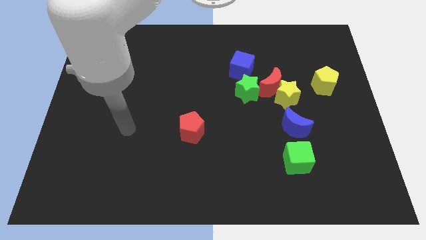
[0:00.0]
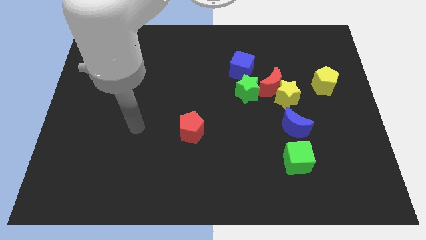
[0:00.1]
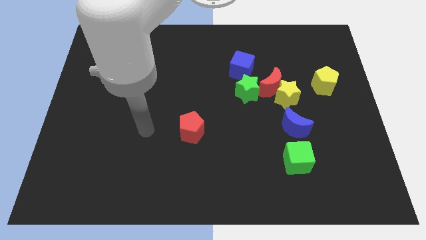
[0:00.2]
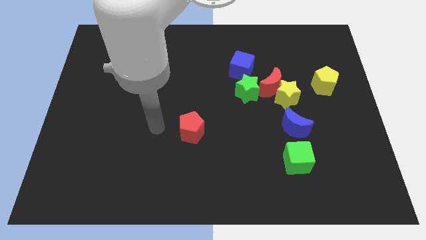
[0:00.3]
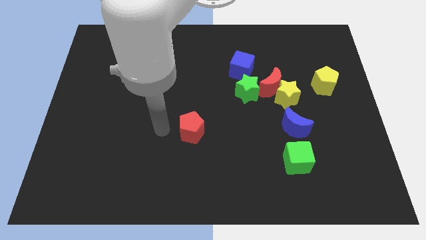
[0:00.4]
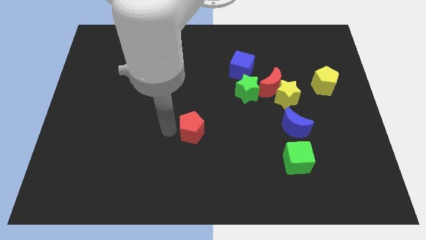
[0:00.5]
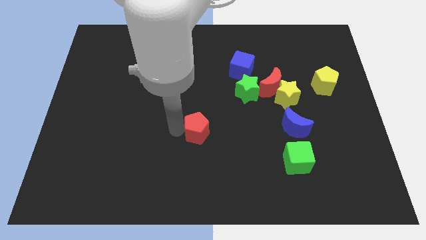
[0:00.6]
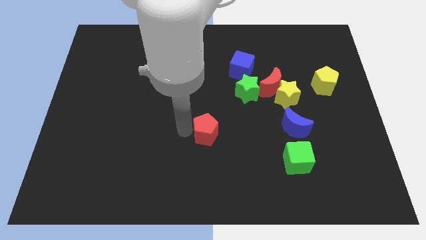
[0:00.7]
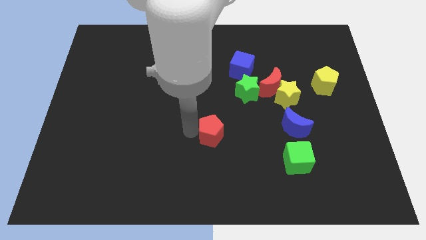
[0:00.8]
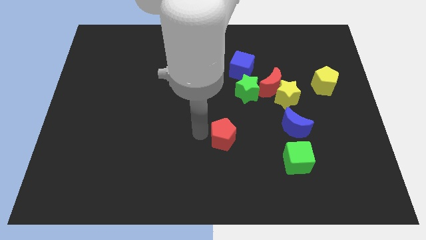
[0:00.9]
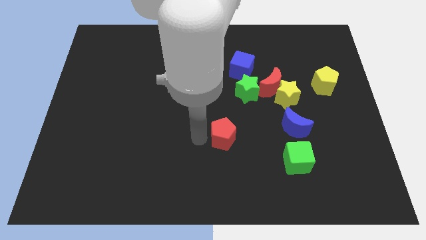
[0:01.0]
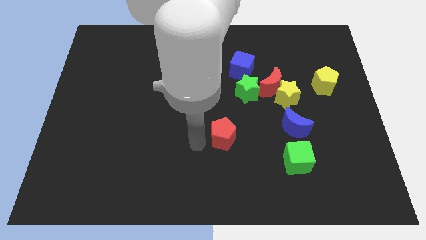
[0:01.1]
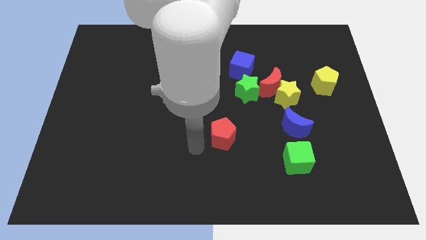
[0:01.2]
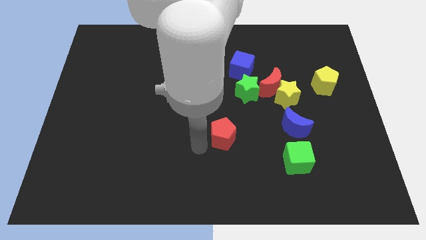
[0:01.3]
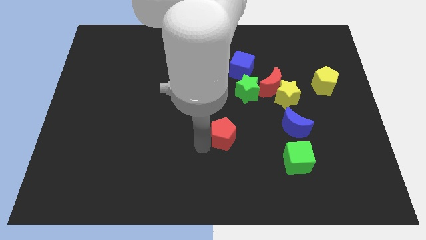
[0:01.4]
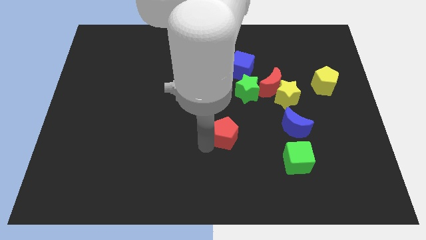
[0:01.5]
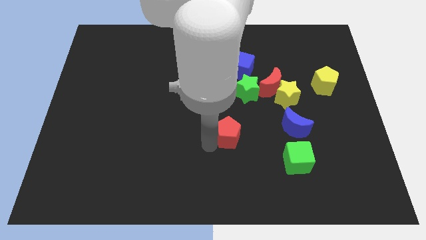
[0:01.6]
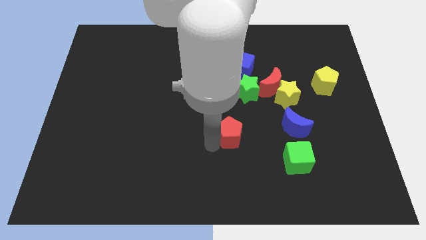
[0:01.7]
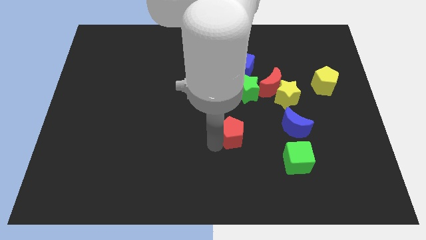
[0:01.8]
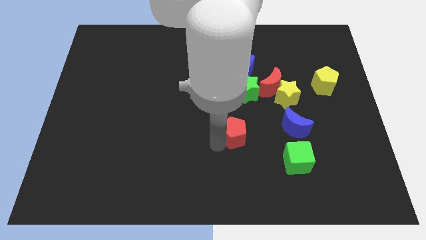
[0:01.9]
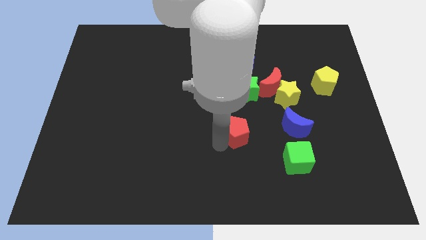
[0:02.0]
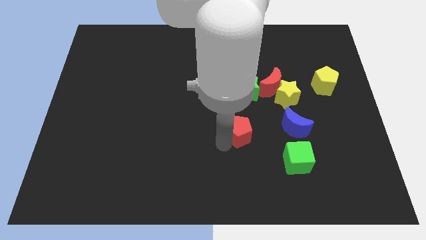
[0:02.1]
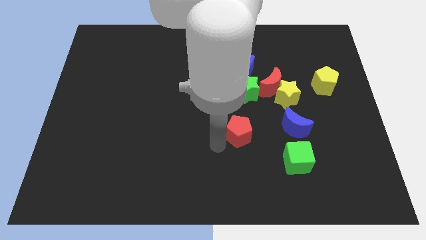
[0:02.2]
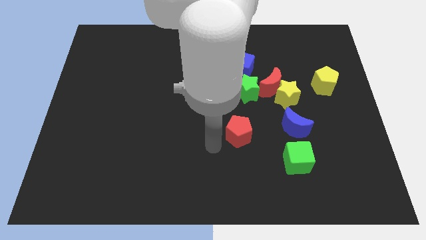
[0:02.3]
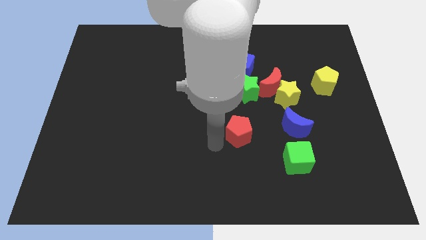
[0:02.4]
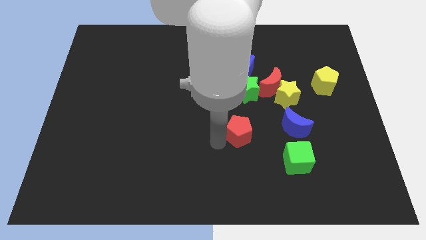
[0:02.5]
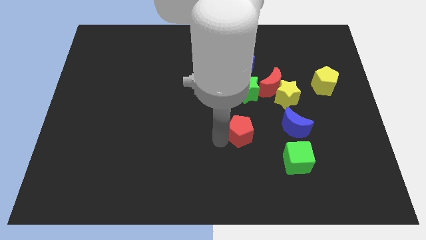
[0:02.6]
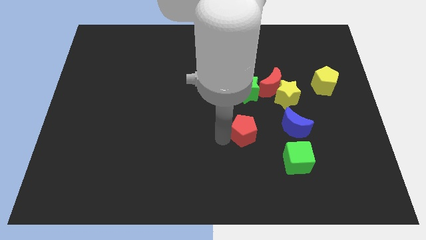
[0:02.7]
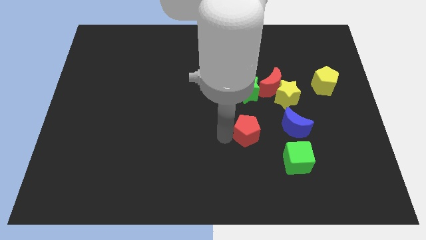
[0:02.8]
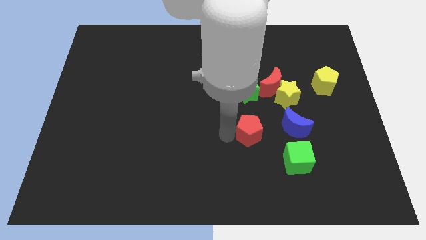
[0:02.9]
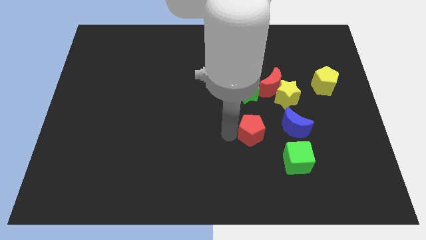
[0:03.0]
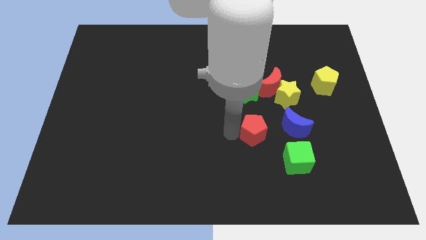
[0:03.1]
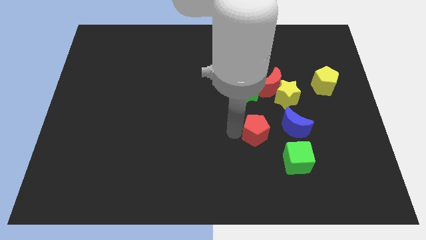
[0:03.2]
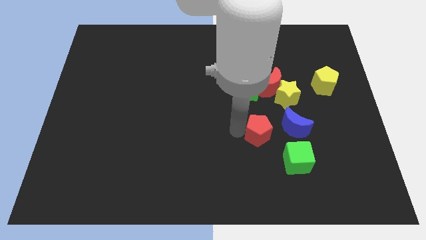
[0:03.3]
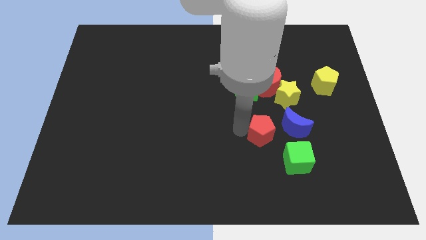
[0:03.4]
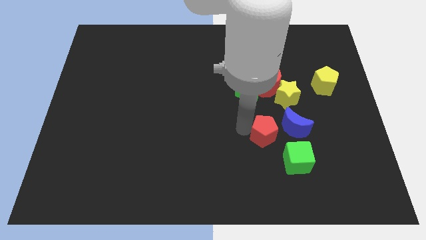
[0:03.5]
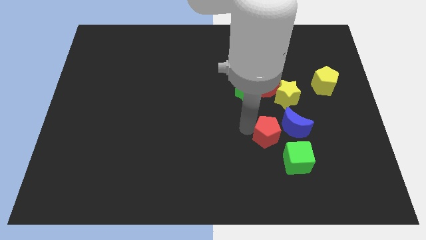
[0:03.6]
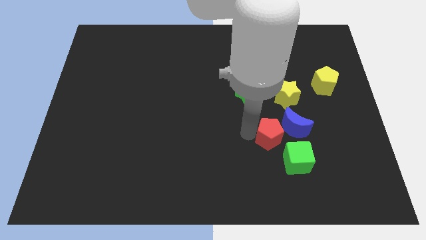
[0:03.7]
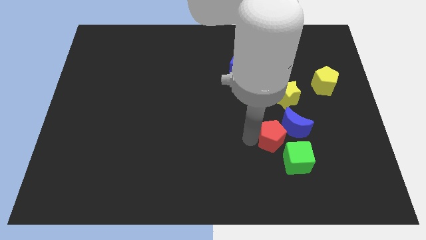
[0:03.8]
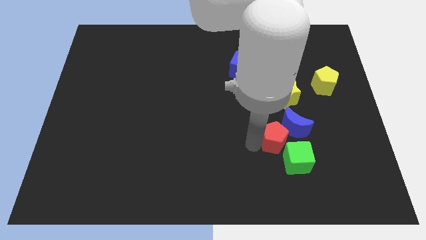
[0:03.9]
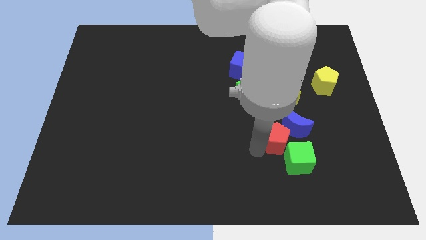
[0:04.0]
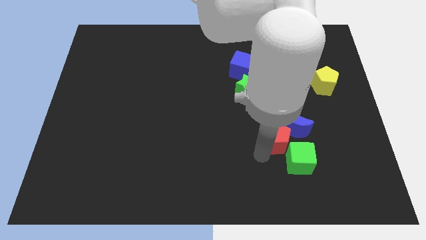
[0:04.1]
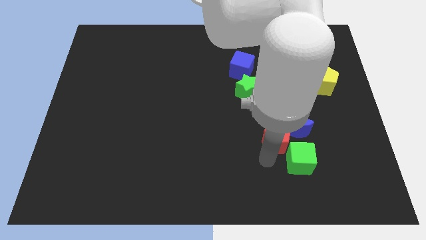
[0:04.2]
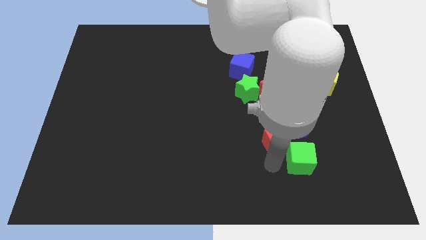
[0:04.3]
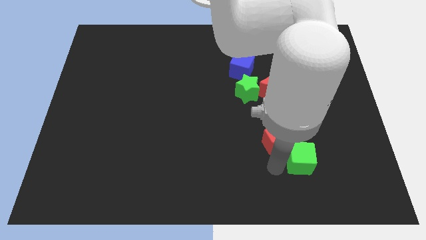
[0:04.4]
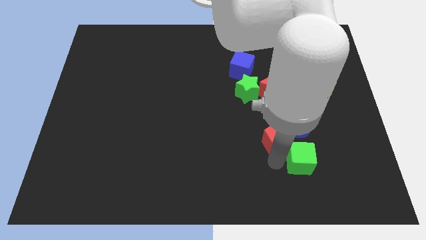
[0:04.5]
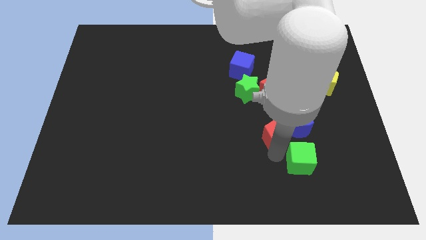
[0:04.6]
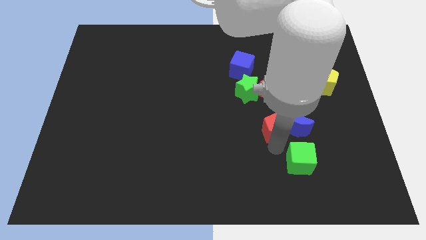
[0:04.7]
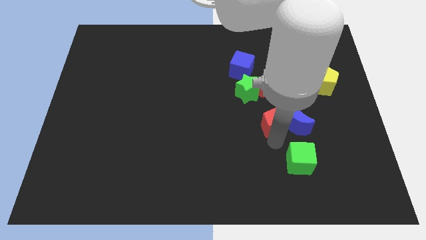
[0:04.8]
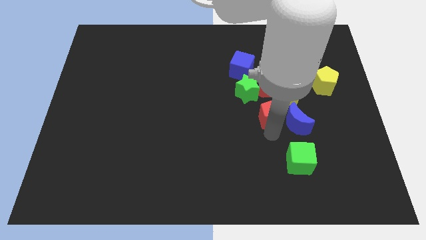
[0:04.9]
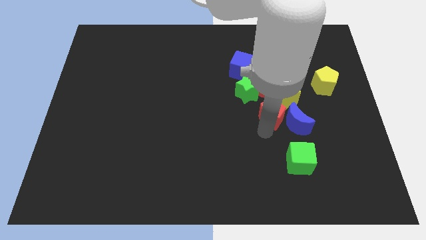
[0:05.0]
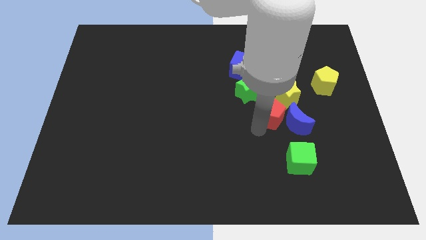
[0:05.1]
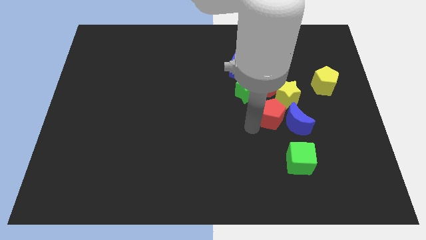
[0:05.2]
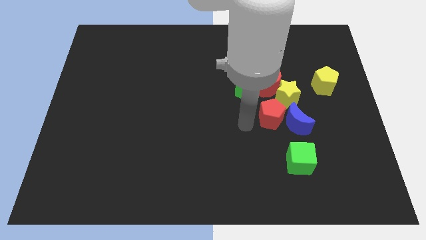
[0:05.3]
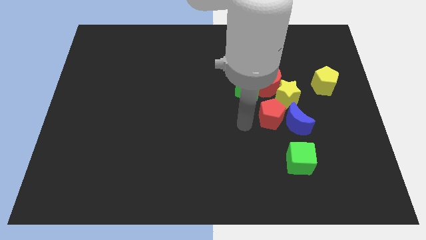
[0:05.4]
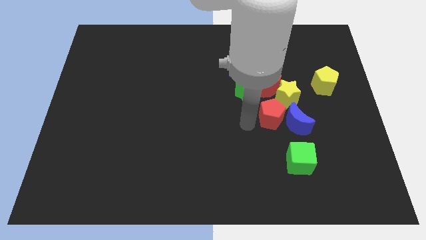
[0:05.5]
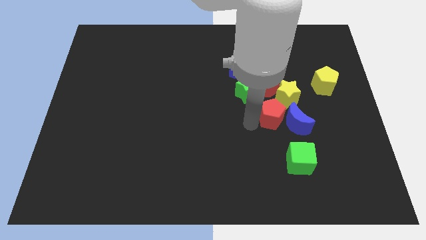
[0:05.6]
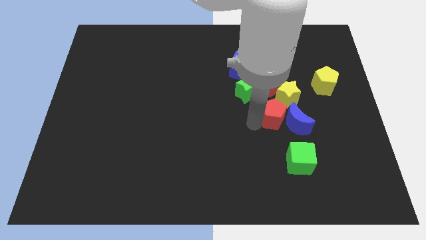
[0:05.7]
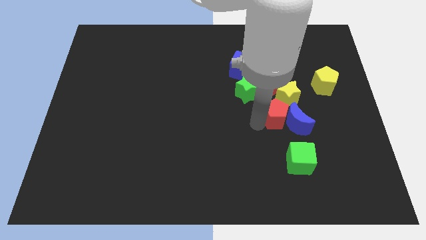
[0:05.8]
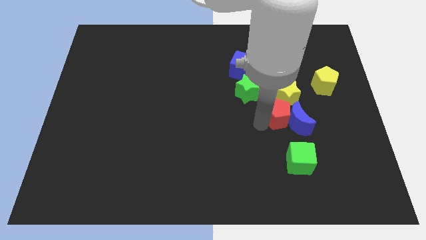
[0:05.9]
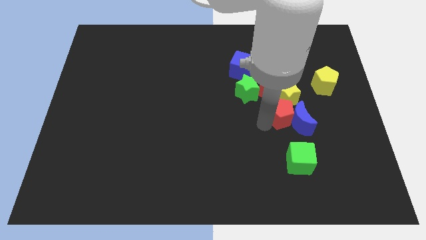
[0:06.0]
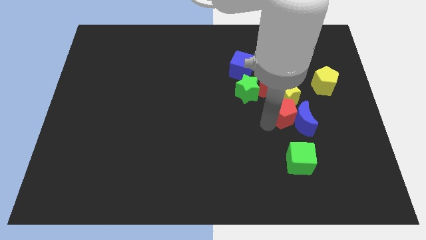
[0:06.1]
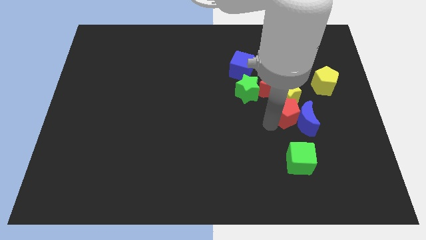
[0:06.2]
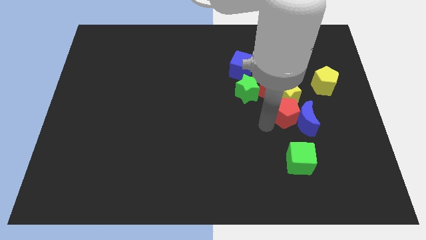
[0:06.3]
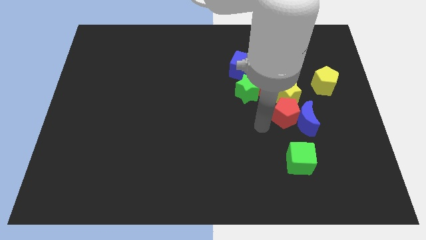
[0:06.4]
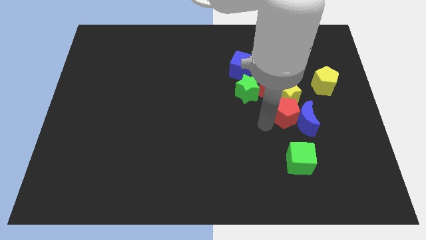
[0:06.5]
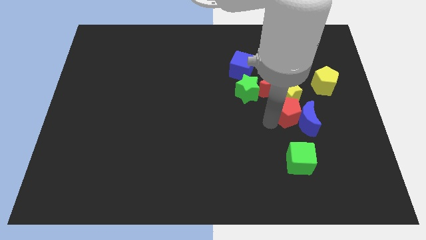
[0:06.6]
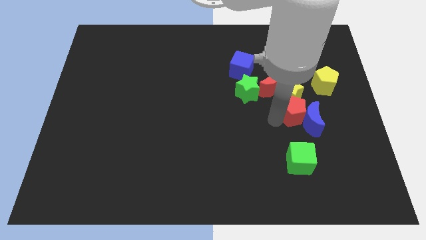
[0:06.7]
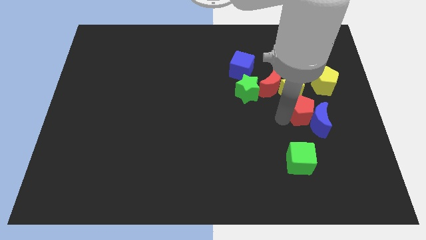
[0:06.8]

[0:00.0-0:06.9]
move the red pentagon to the bottom left side of the yellow pentagon
